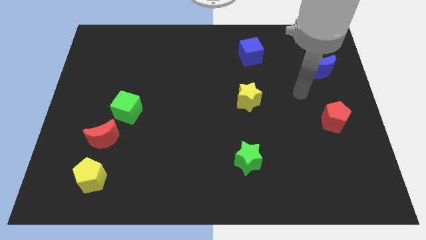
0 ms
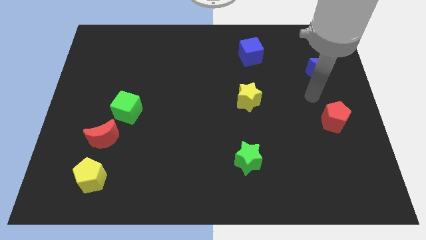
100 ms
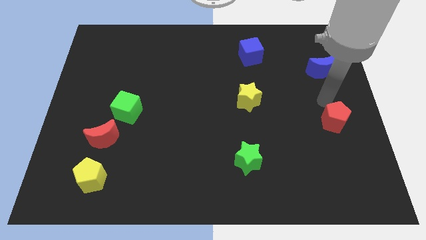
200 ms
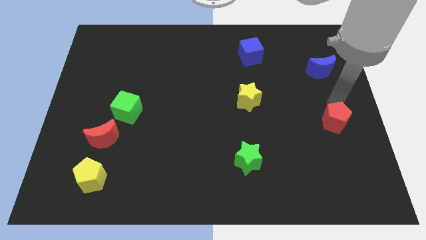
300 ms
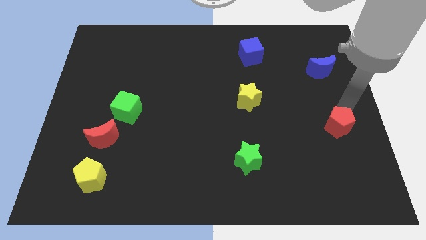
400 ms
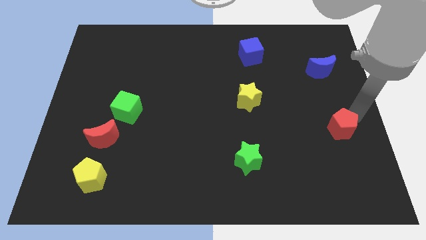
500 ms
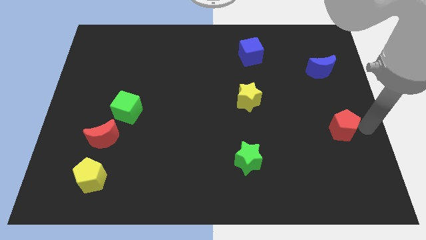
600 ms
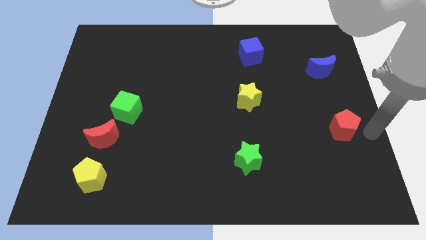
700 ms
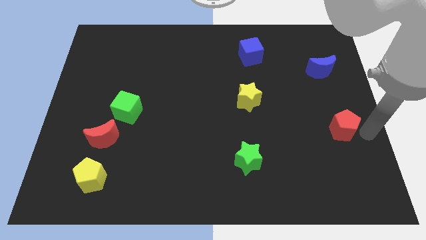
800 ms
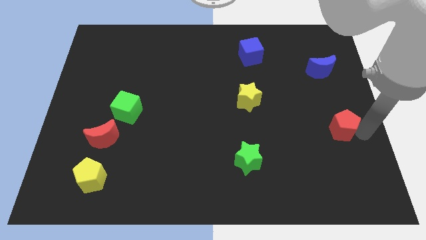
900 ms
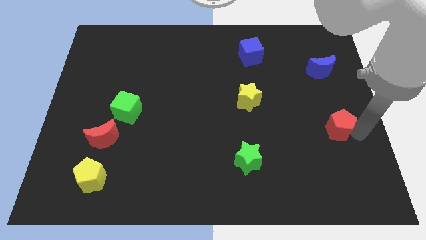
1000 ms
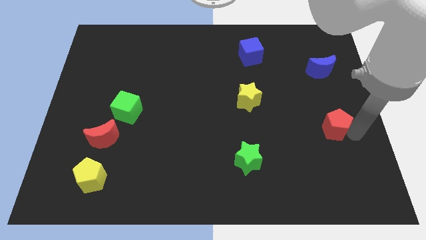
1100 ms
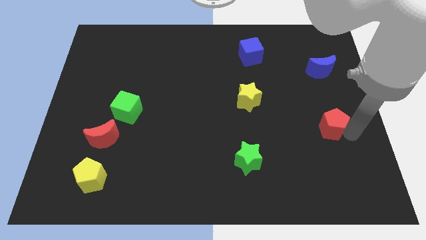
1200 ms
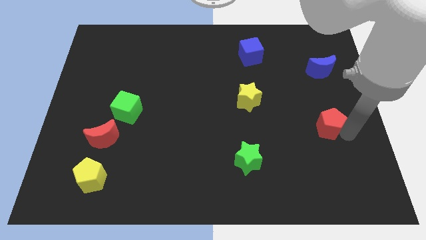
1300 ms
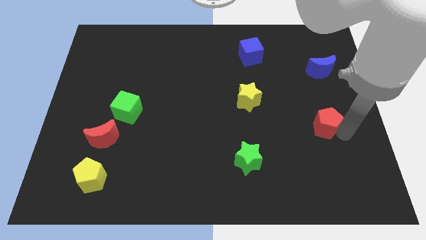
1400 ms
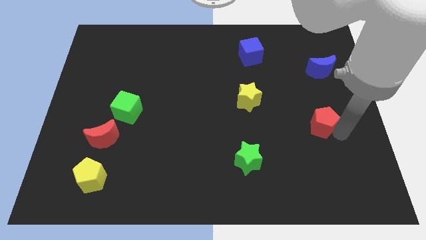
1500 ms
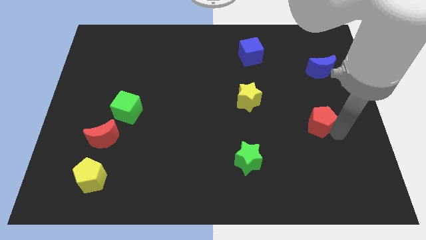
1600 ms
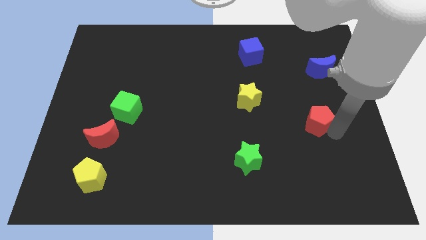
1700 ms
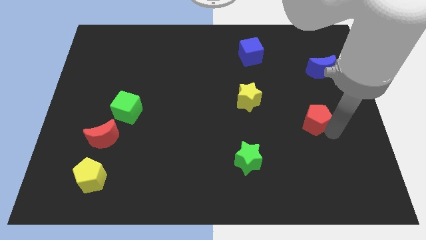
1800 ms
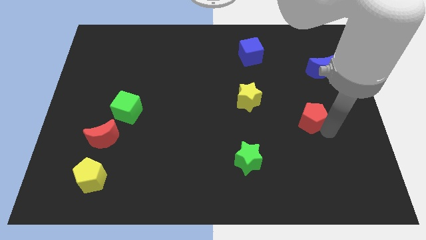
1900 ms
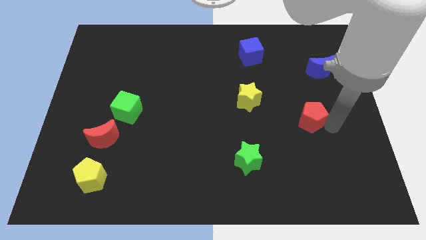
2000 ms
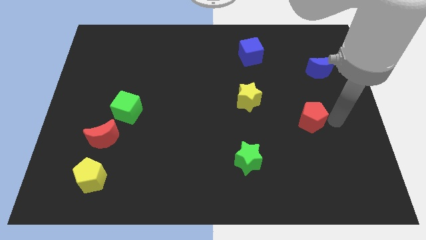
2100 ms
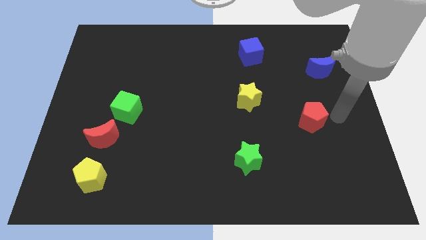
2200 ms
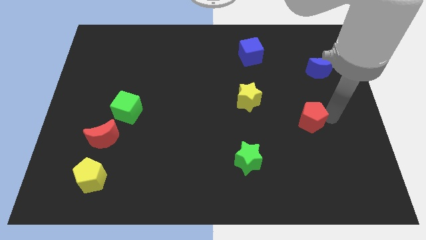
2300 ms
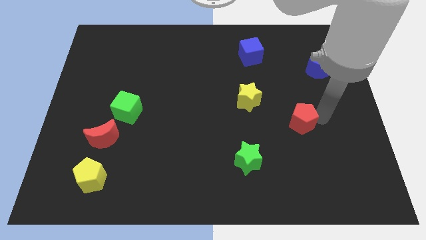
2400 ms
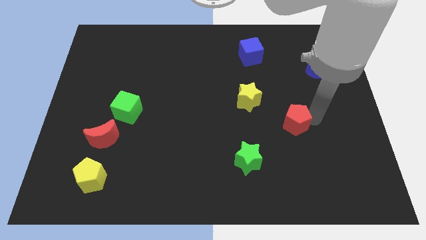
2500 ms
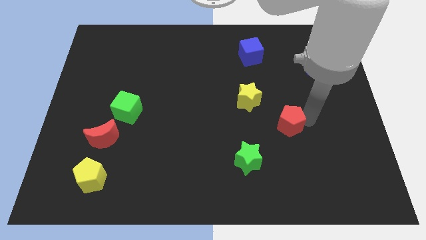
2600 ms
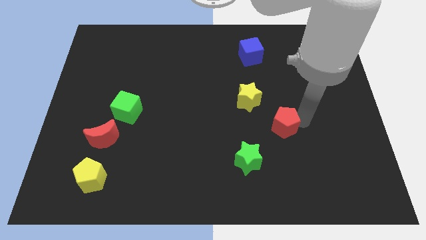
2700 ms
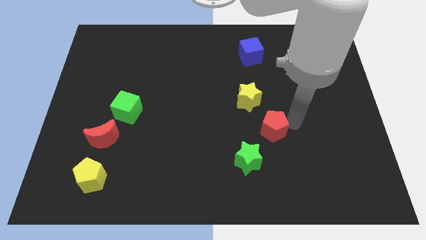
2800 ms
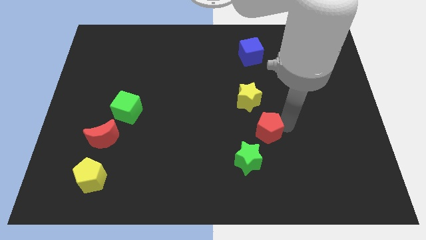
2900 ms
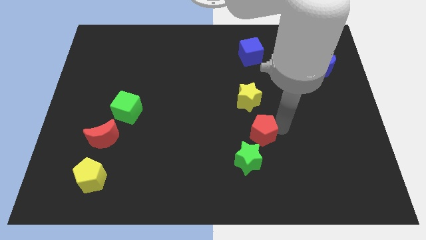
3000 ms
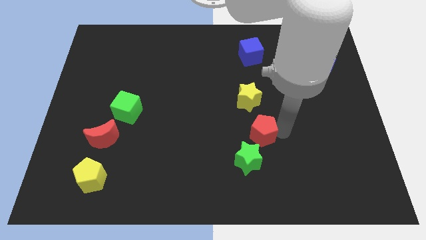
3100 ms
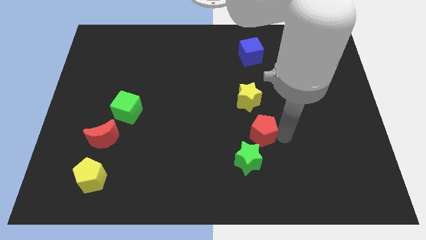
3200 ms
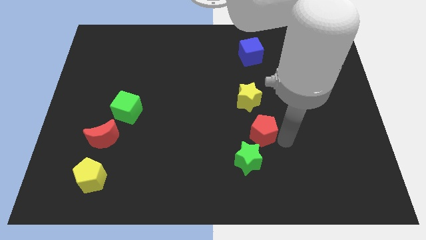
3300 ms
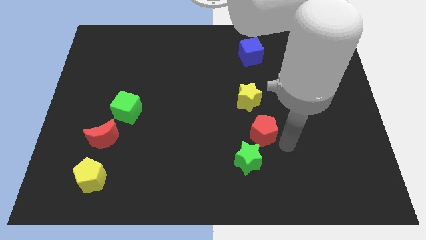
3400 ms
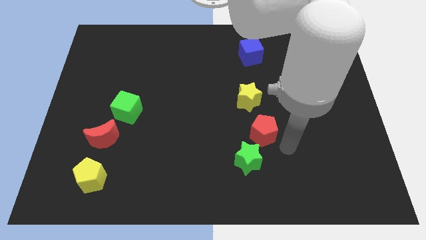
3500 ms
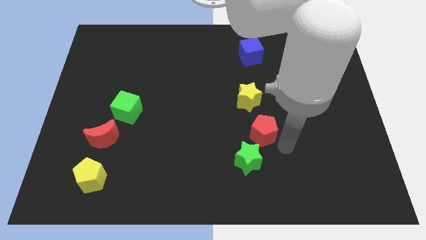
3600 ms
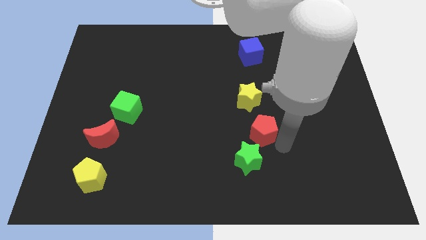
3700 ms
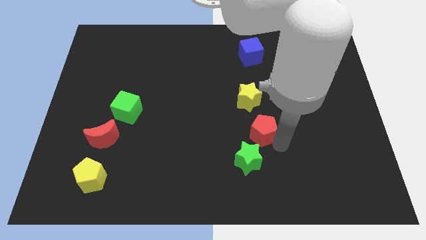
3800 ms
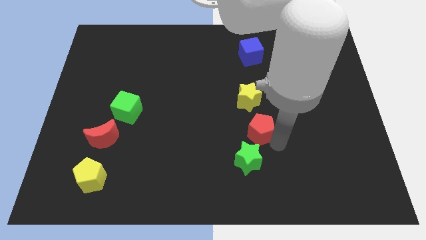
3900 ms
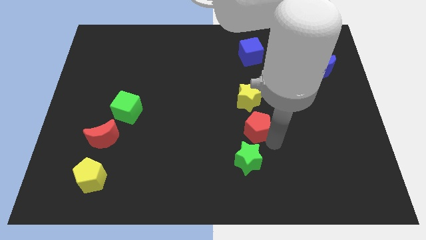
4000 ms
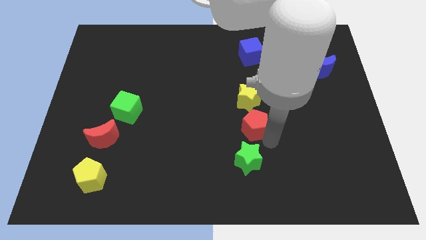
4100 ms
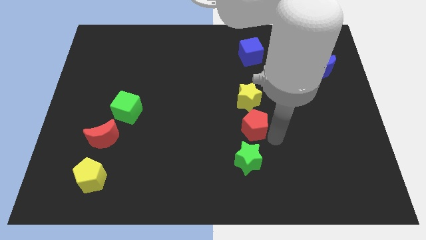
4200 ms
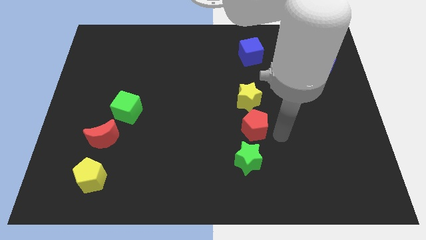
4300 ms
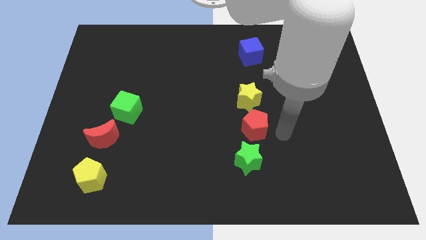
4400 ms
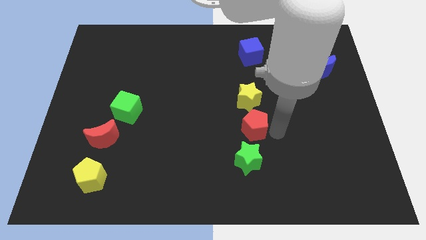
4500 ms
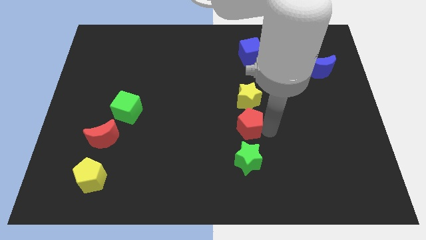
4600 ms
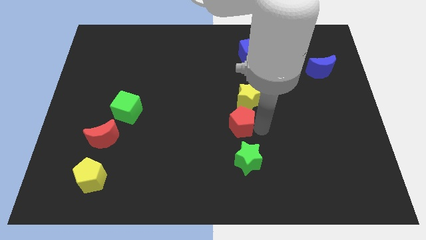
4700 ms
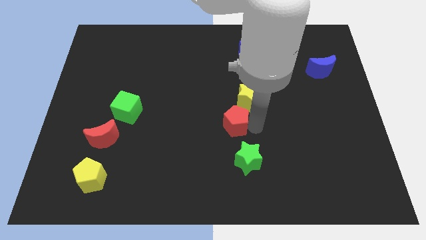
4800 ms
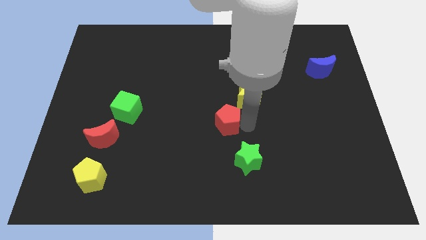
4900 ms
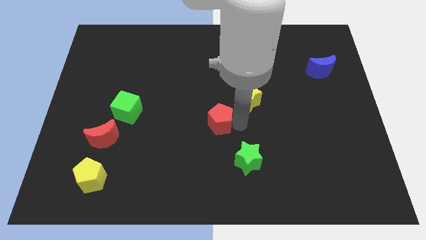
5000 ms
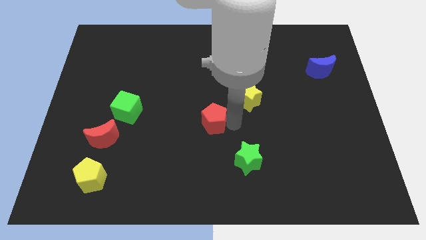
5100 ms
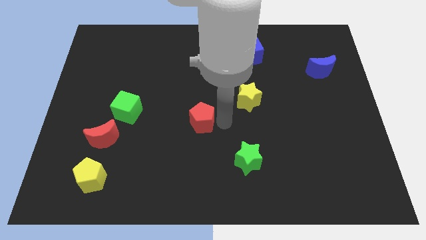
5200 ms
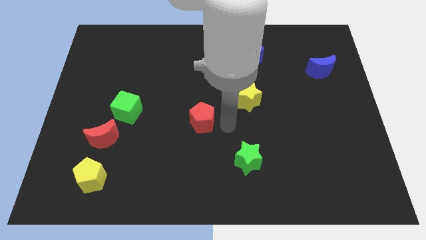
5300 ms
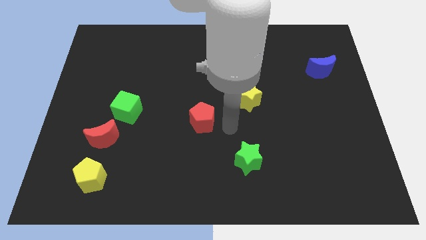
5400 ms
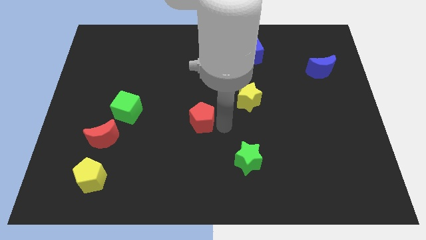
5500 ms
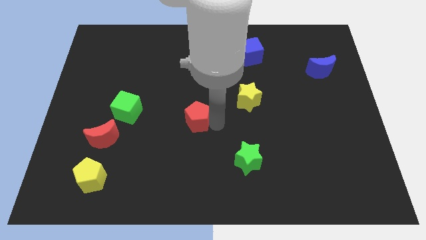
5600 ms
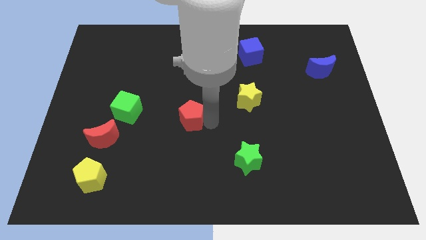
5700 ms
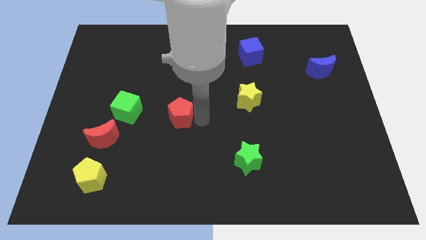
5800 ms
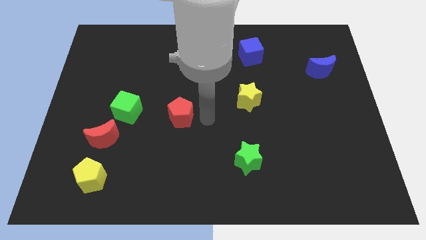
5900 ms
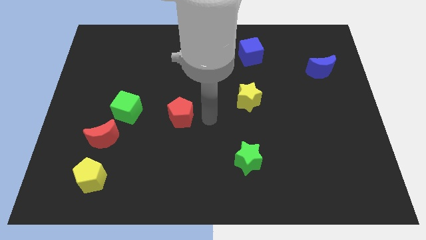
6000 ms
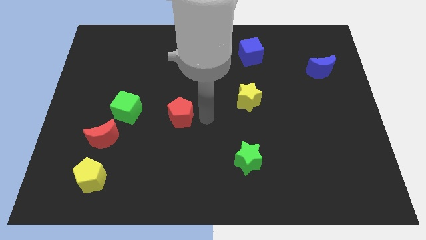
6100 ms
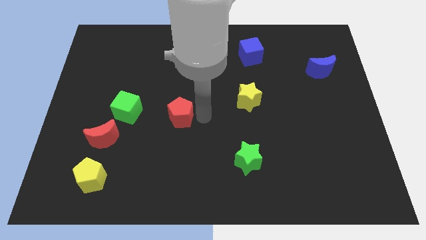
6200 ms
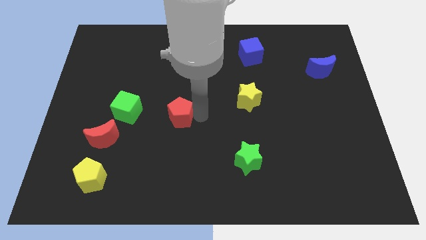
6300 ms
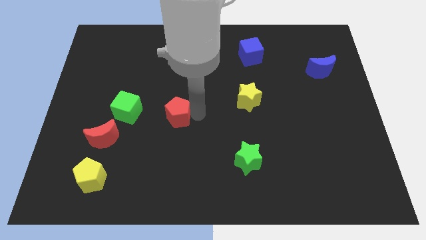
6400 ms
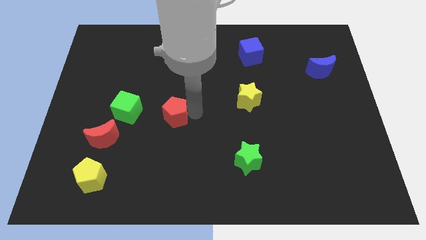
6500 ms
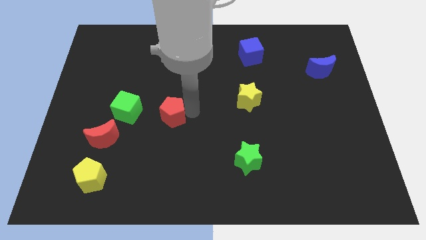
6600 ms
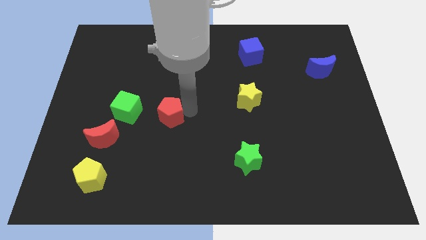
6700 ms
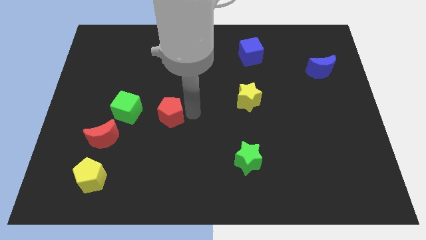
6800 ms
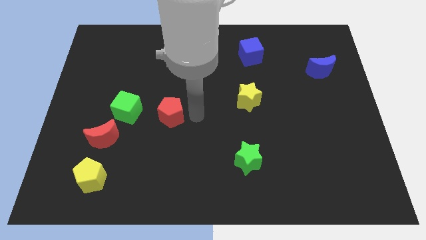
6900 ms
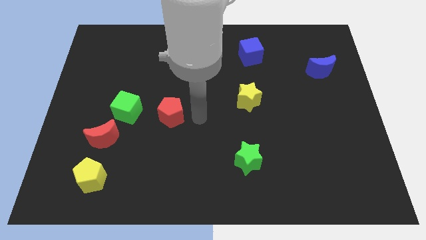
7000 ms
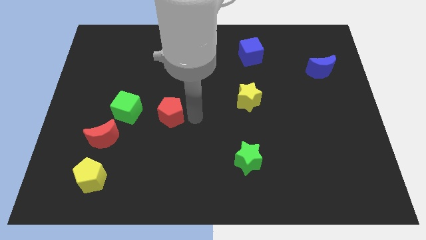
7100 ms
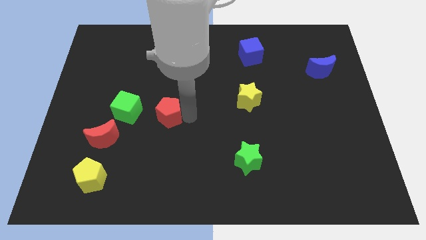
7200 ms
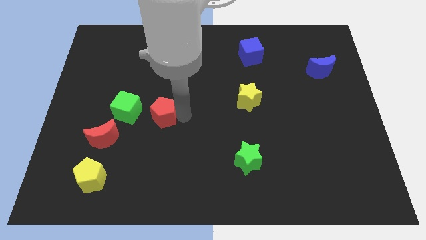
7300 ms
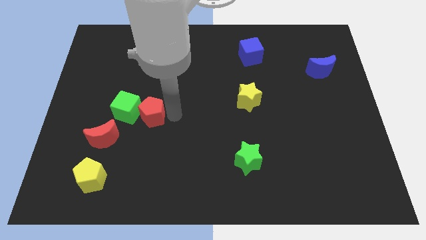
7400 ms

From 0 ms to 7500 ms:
move the red pentagon towards the green cube

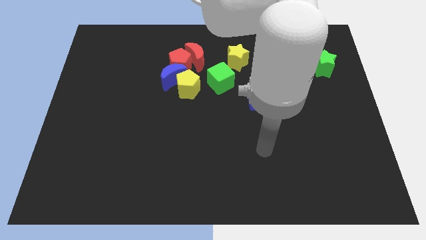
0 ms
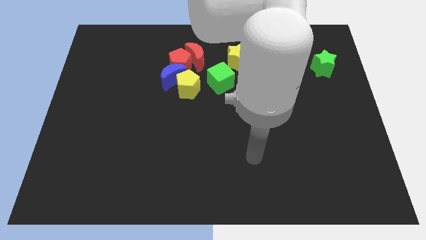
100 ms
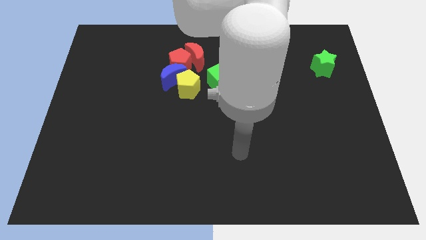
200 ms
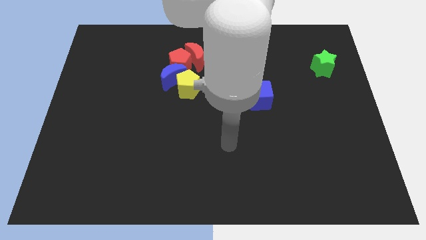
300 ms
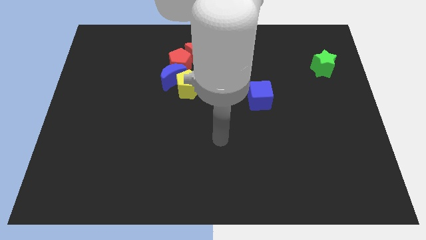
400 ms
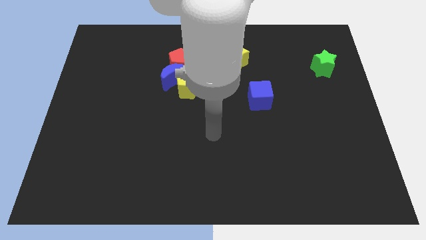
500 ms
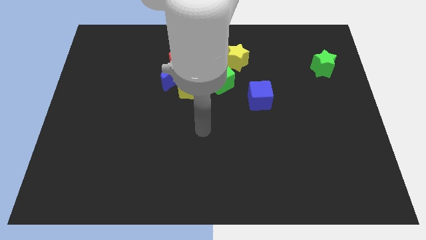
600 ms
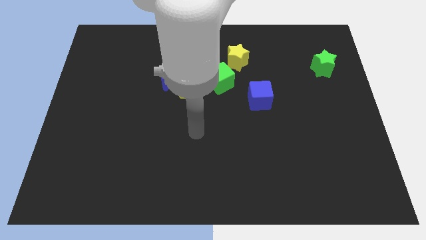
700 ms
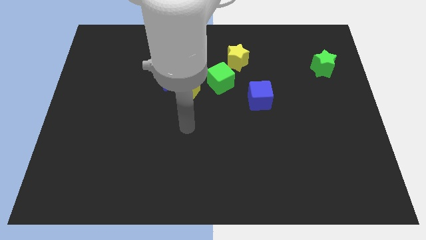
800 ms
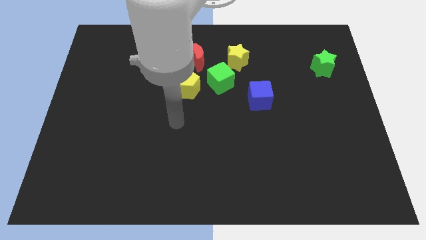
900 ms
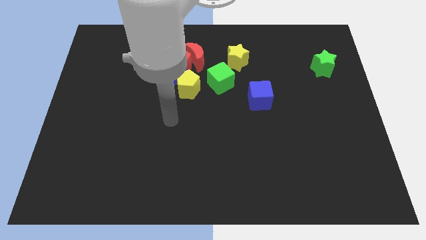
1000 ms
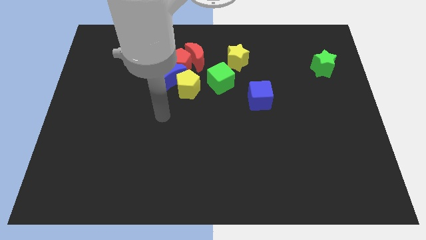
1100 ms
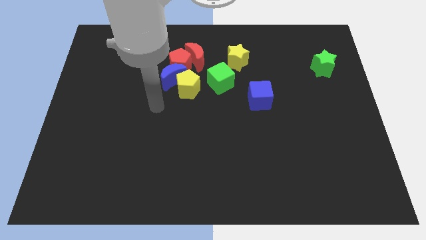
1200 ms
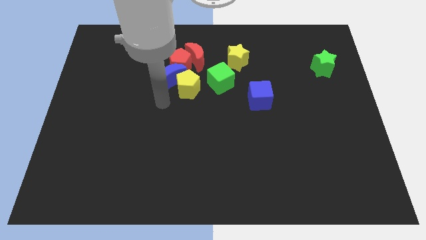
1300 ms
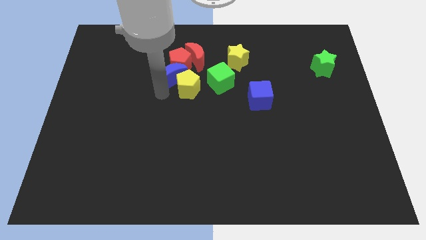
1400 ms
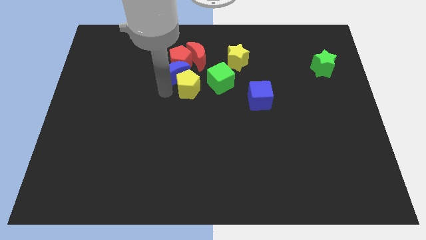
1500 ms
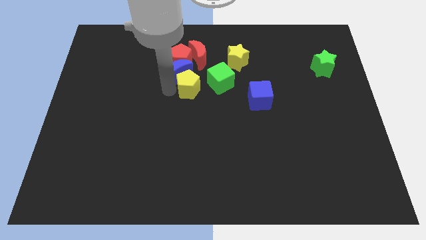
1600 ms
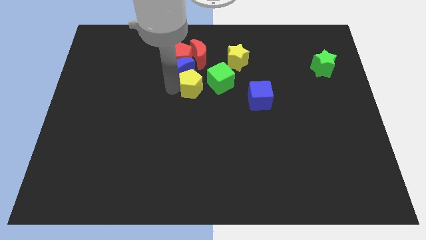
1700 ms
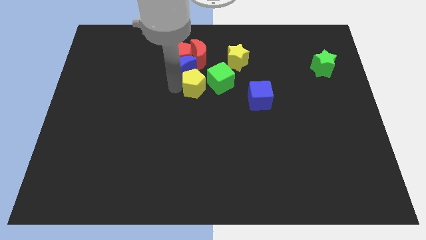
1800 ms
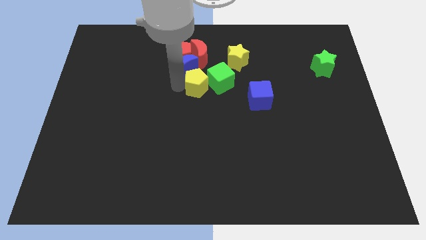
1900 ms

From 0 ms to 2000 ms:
move the yellow pentagon close to the green cube
